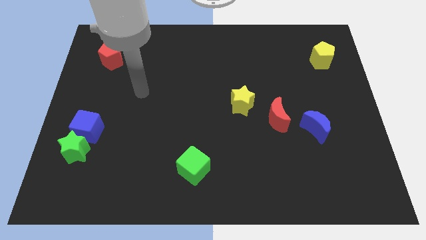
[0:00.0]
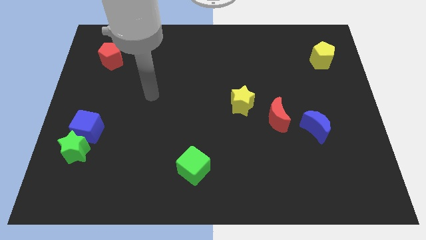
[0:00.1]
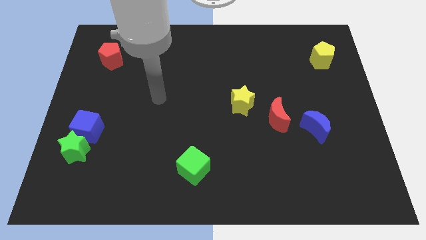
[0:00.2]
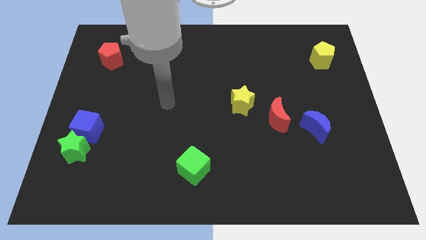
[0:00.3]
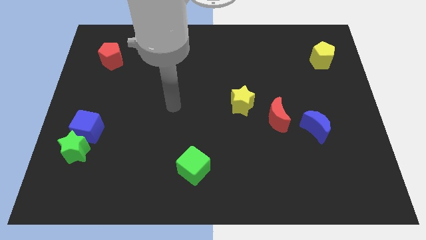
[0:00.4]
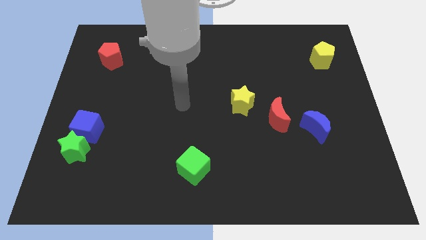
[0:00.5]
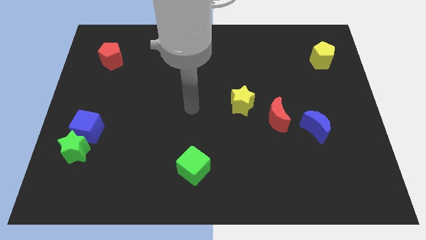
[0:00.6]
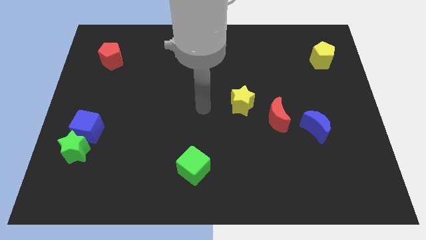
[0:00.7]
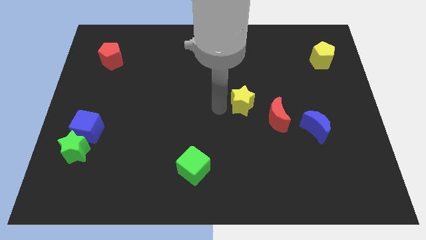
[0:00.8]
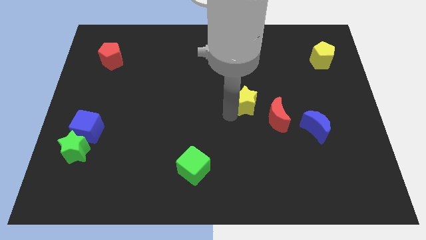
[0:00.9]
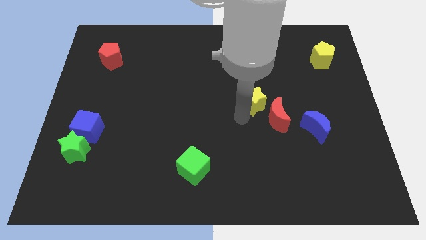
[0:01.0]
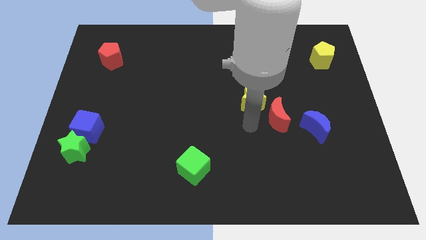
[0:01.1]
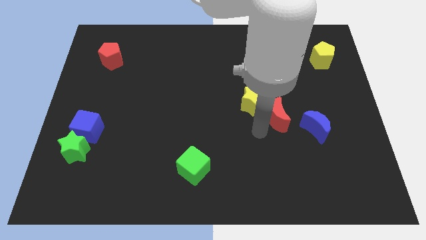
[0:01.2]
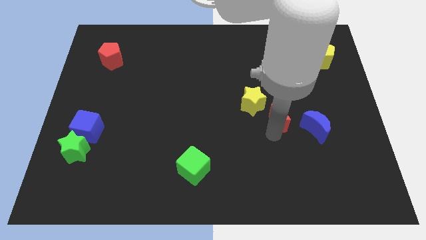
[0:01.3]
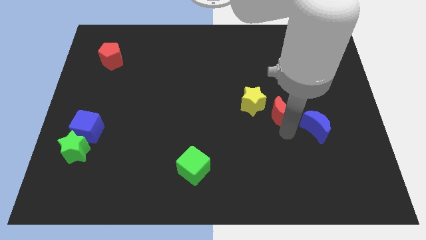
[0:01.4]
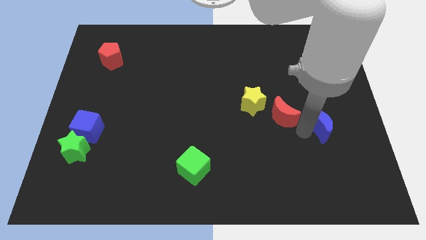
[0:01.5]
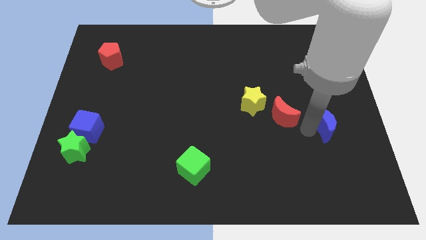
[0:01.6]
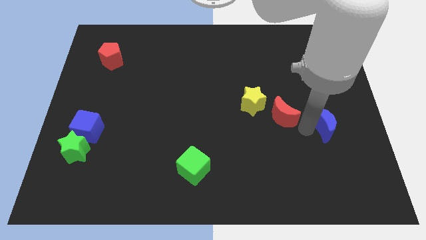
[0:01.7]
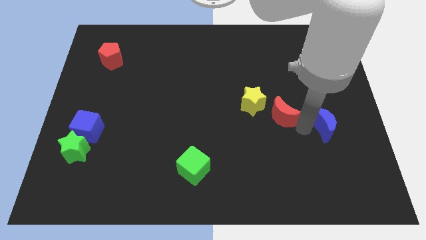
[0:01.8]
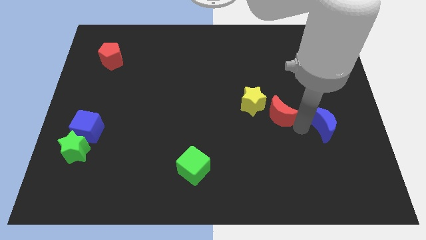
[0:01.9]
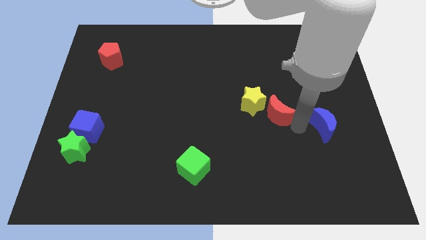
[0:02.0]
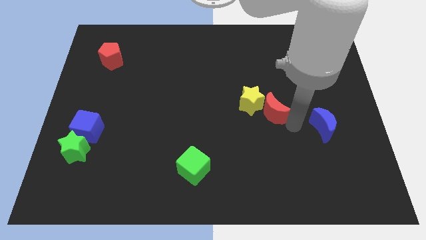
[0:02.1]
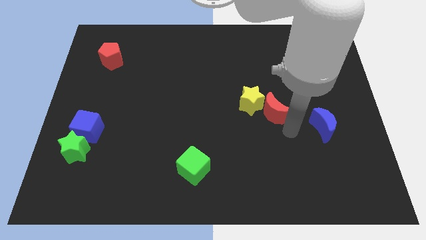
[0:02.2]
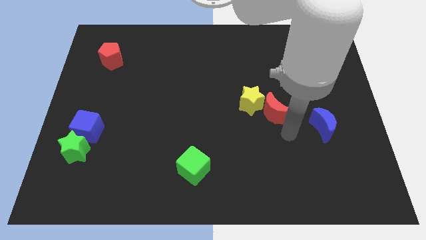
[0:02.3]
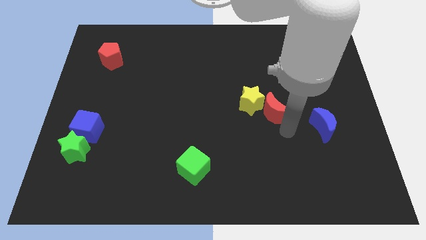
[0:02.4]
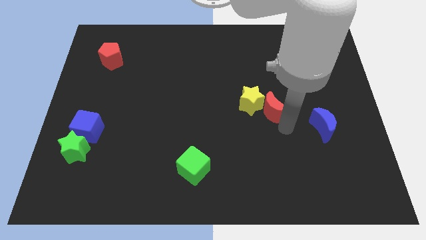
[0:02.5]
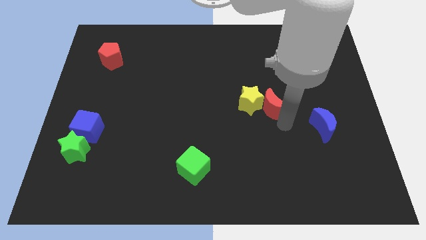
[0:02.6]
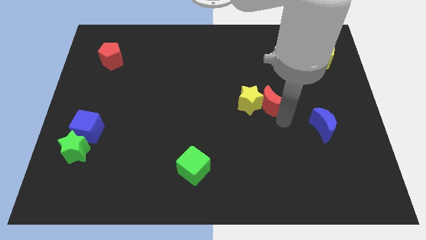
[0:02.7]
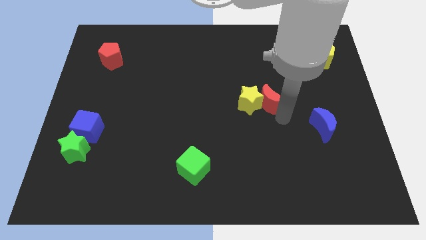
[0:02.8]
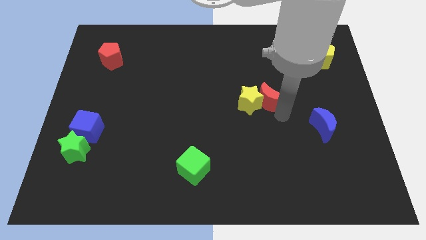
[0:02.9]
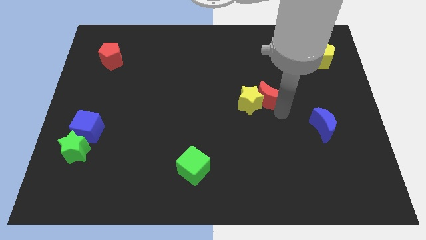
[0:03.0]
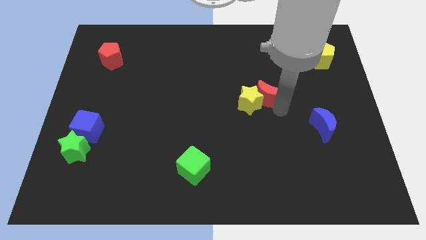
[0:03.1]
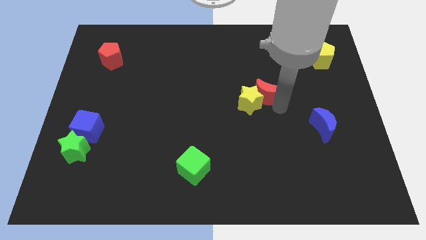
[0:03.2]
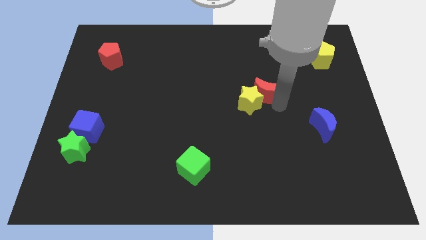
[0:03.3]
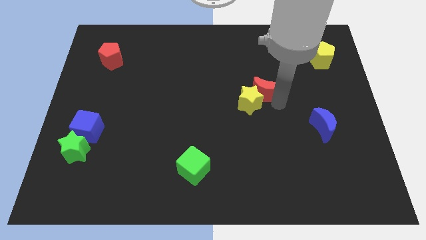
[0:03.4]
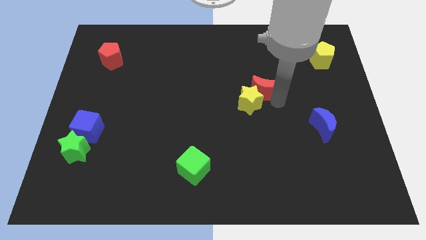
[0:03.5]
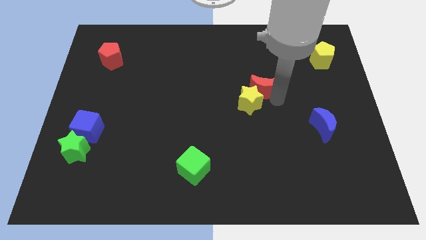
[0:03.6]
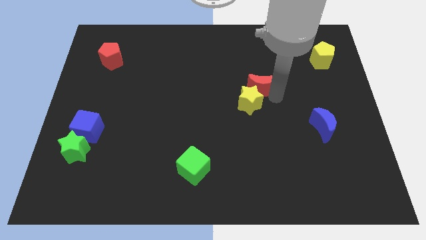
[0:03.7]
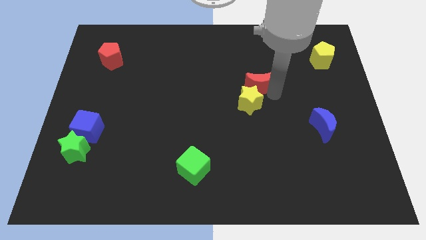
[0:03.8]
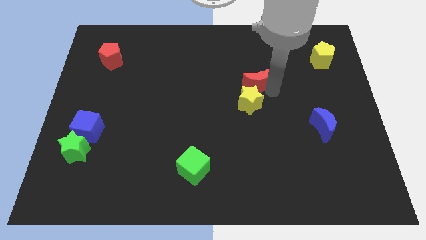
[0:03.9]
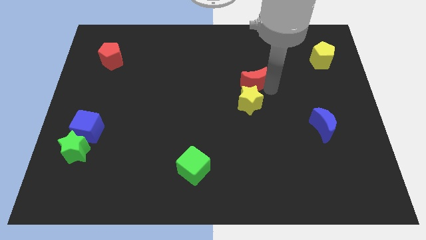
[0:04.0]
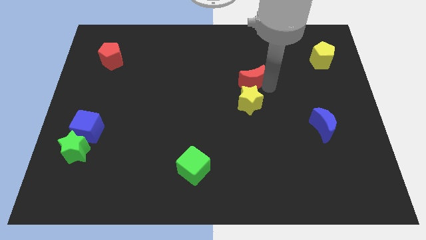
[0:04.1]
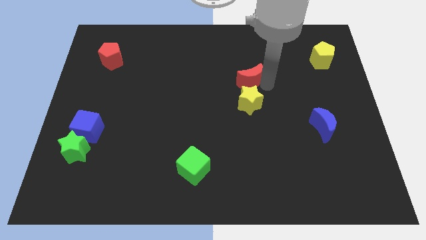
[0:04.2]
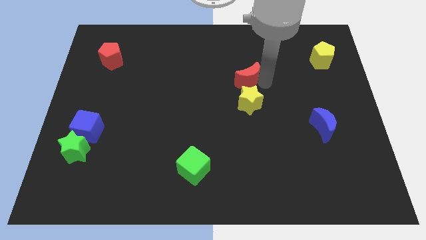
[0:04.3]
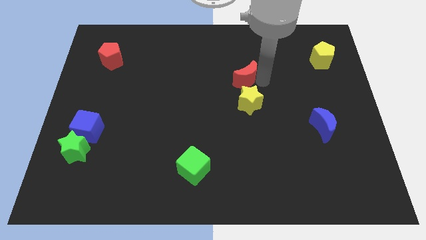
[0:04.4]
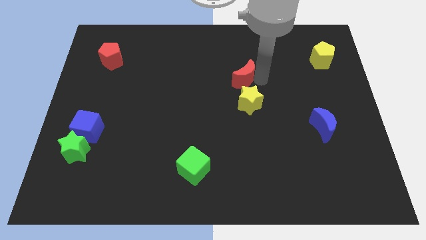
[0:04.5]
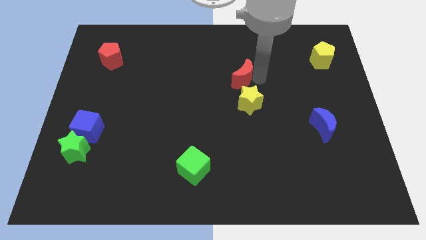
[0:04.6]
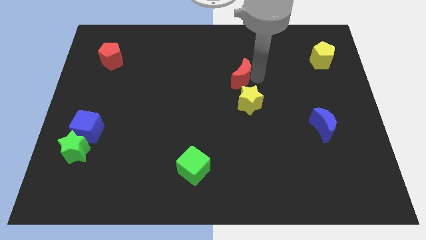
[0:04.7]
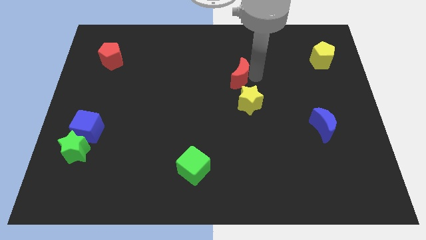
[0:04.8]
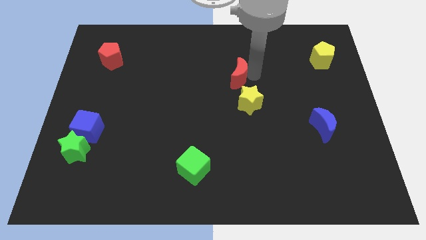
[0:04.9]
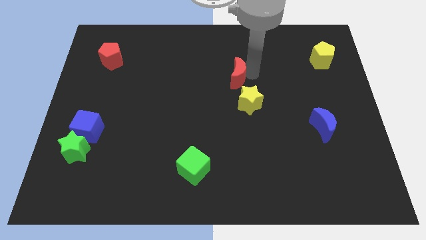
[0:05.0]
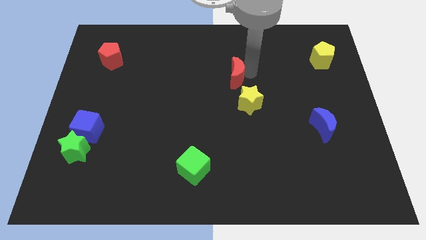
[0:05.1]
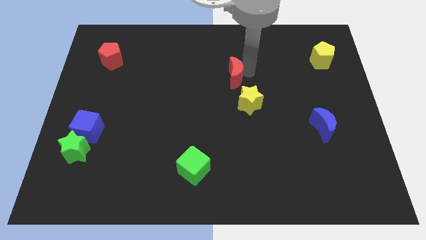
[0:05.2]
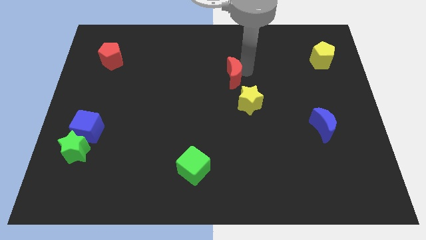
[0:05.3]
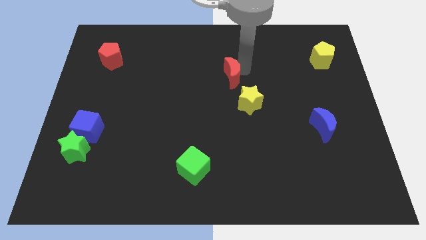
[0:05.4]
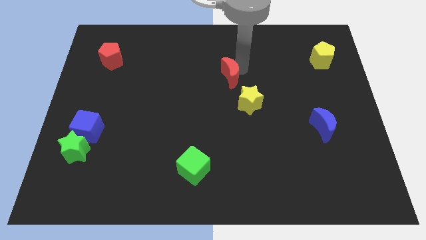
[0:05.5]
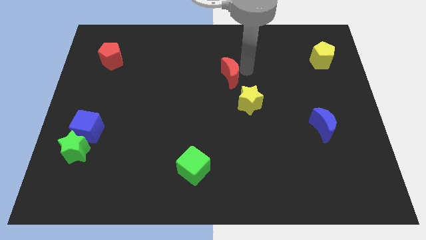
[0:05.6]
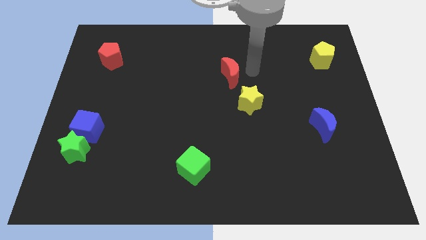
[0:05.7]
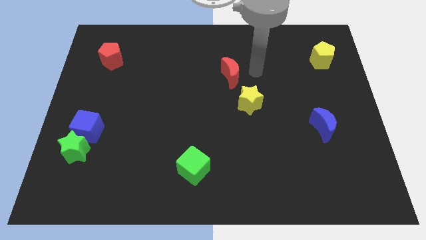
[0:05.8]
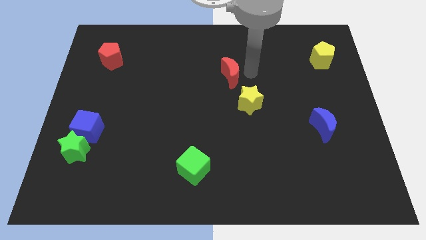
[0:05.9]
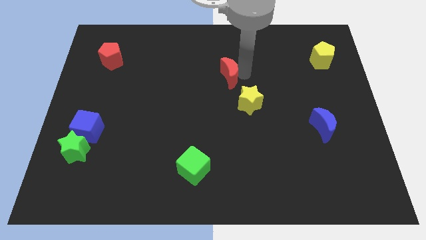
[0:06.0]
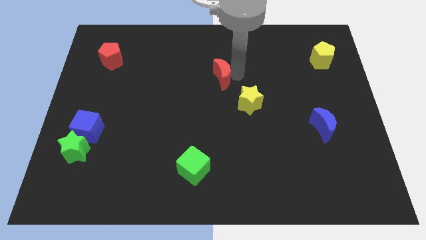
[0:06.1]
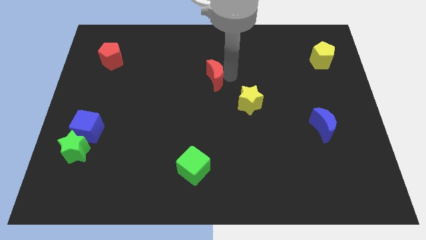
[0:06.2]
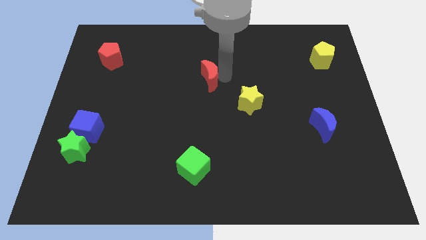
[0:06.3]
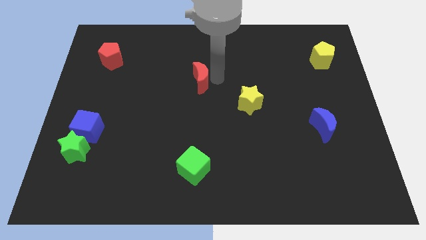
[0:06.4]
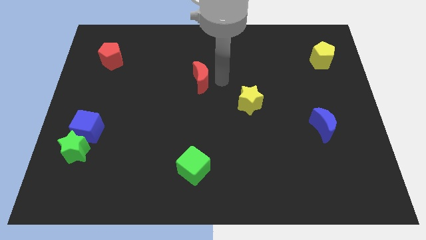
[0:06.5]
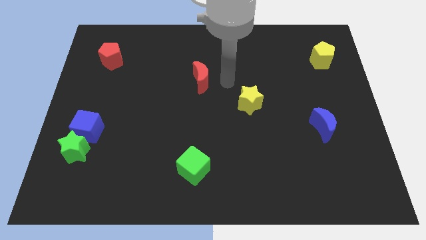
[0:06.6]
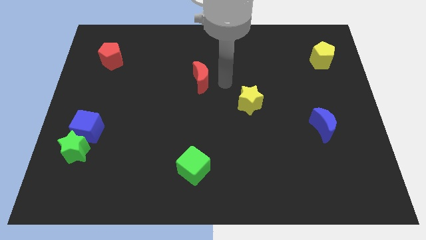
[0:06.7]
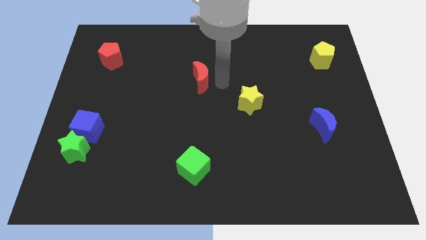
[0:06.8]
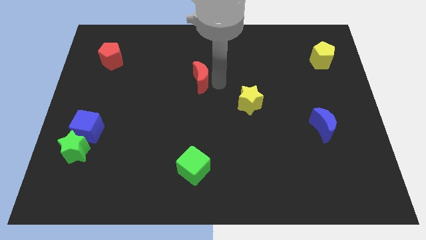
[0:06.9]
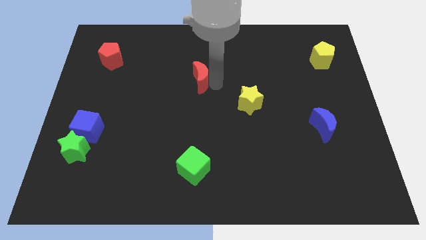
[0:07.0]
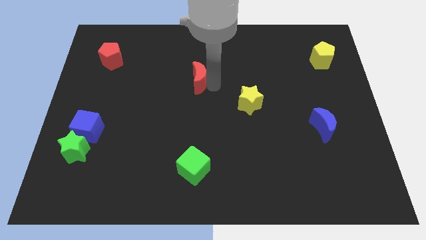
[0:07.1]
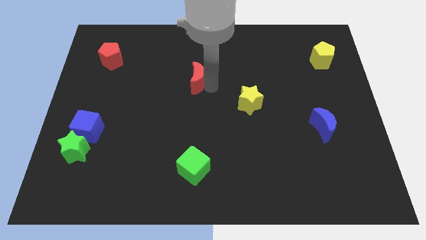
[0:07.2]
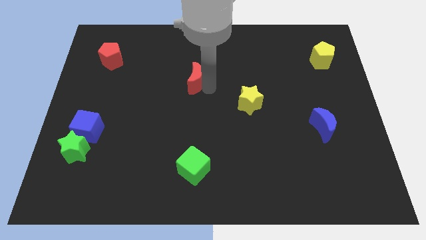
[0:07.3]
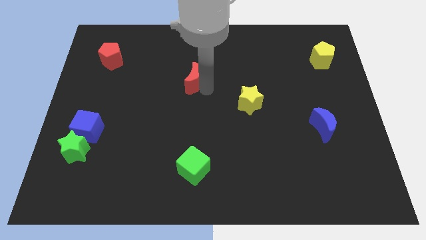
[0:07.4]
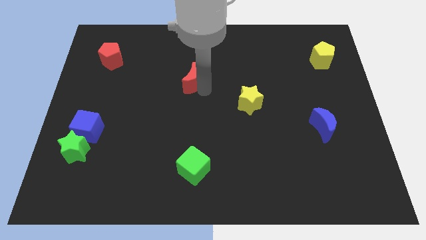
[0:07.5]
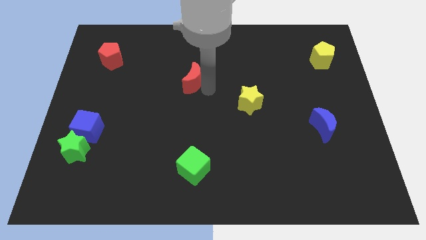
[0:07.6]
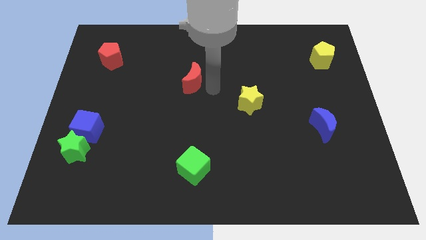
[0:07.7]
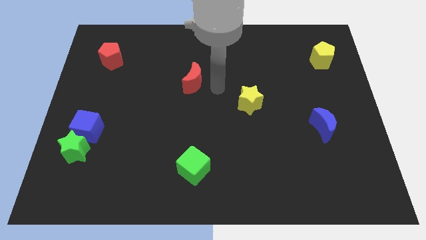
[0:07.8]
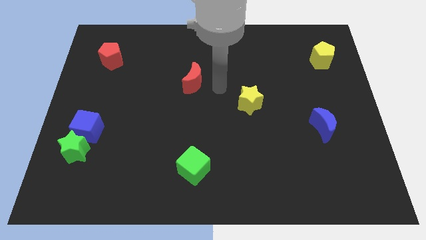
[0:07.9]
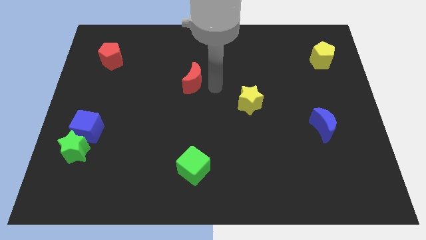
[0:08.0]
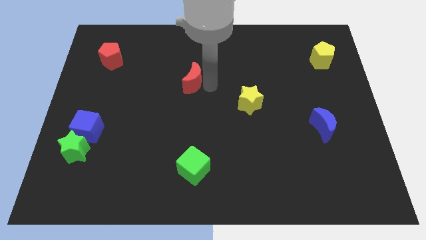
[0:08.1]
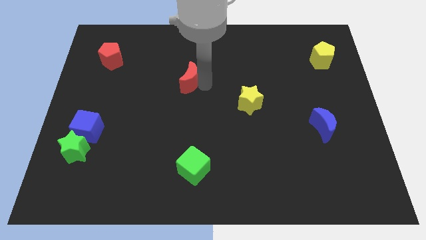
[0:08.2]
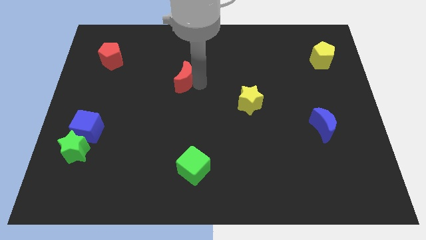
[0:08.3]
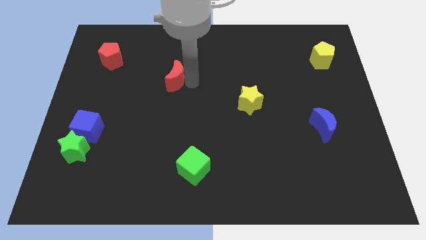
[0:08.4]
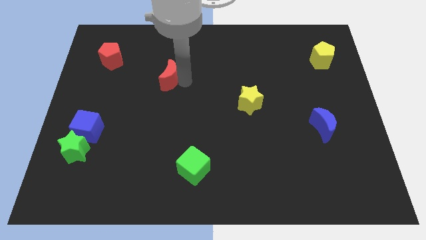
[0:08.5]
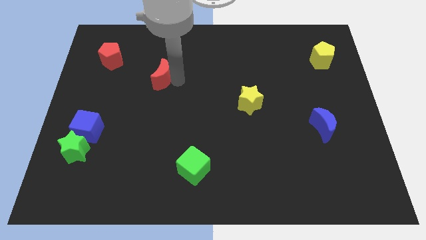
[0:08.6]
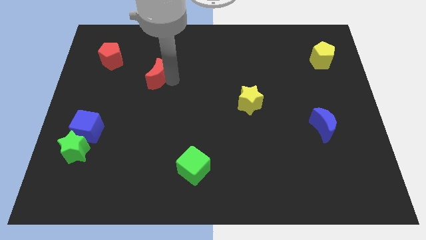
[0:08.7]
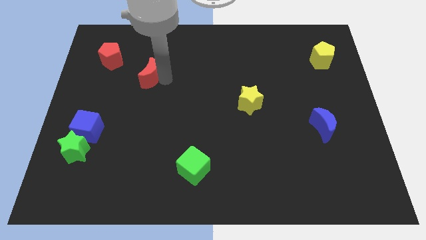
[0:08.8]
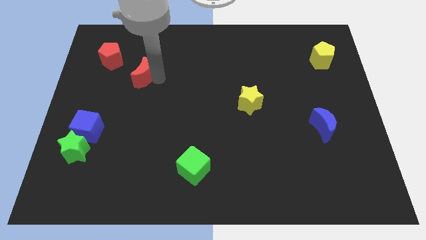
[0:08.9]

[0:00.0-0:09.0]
slide the red moon to the bottom right side of the red pentagon
